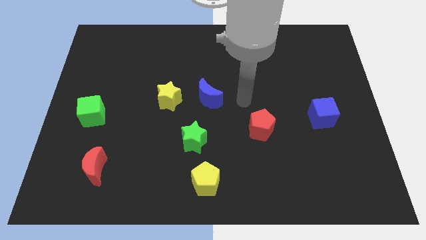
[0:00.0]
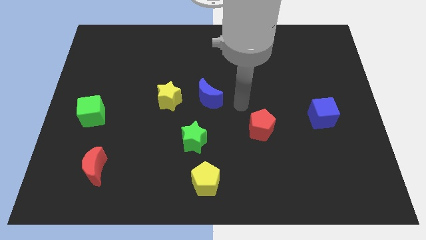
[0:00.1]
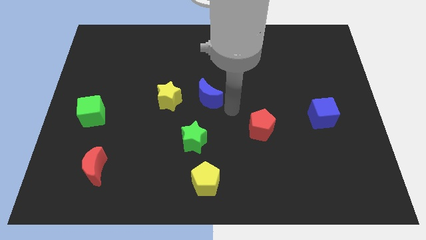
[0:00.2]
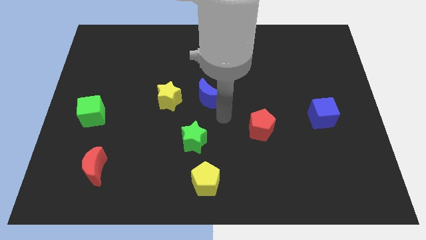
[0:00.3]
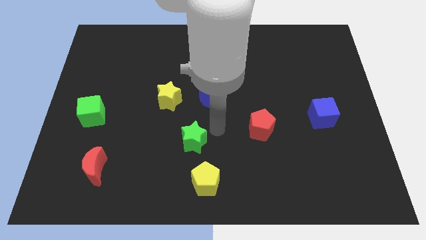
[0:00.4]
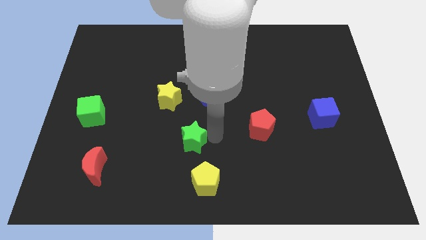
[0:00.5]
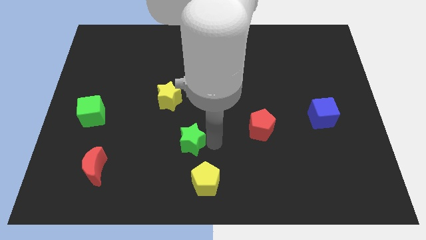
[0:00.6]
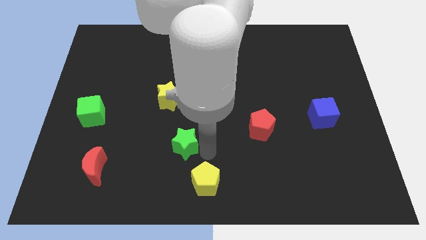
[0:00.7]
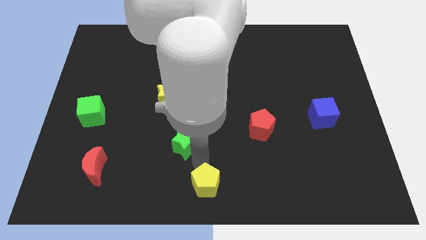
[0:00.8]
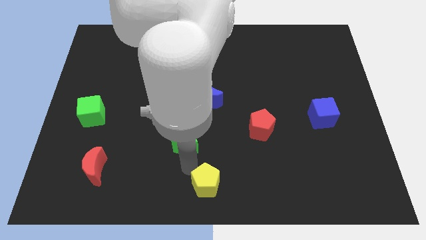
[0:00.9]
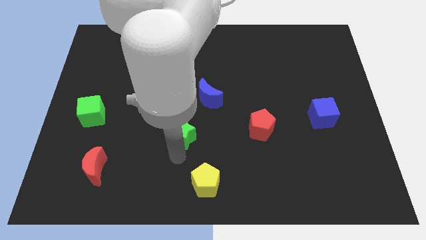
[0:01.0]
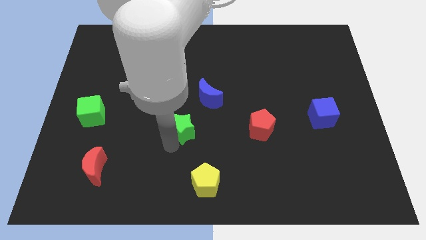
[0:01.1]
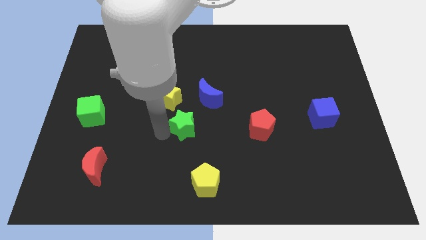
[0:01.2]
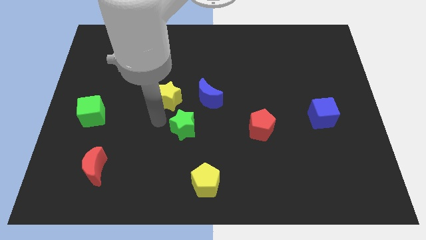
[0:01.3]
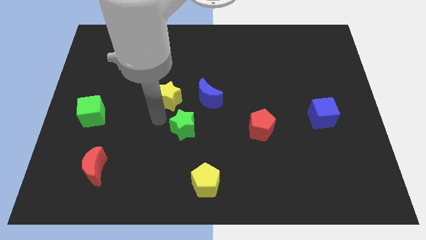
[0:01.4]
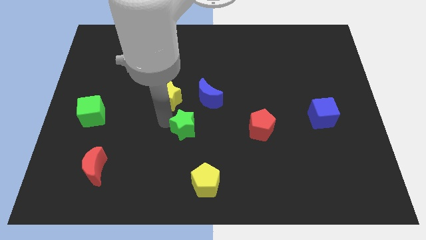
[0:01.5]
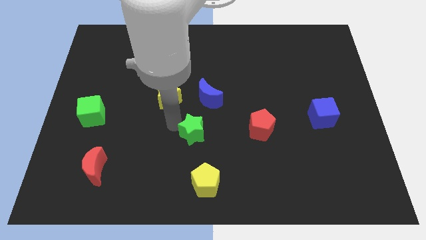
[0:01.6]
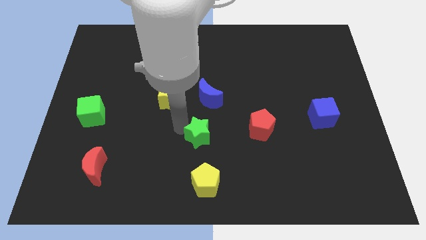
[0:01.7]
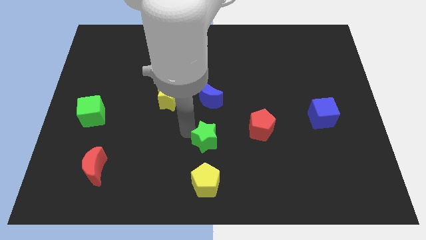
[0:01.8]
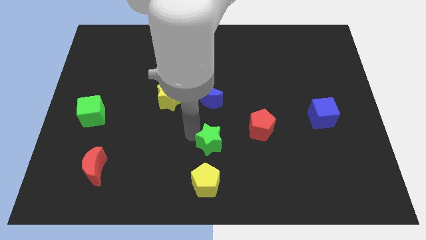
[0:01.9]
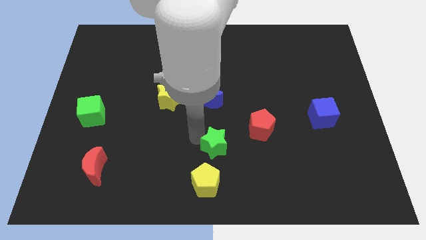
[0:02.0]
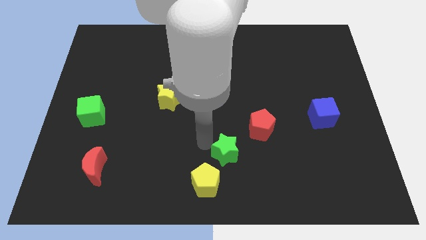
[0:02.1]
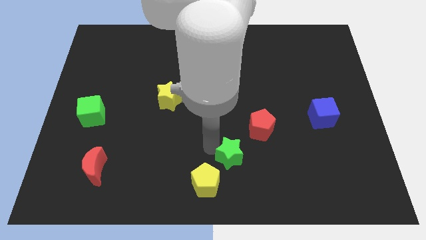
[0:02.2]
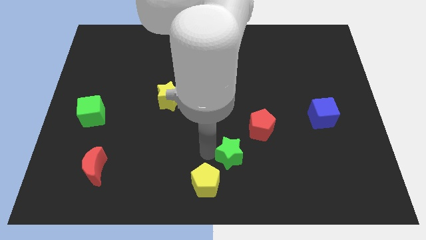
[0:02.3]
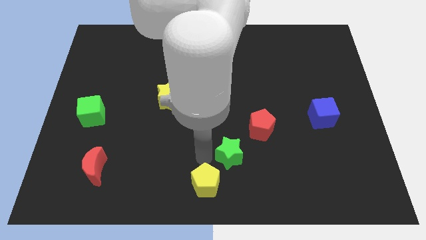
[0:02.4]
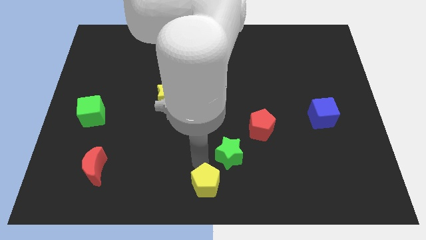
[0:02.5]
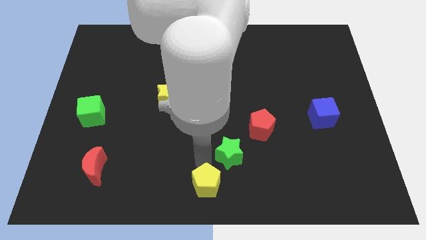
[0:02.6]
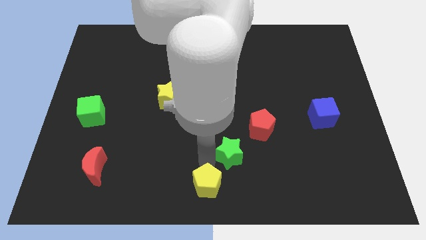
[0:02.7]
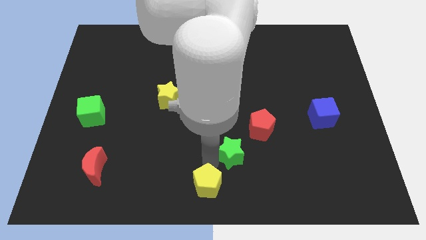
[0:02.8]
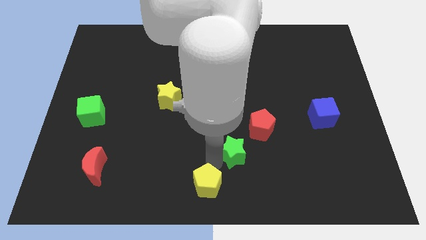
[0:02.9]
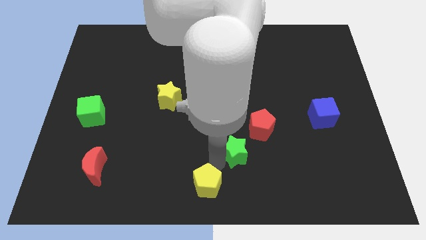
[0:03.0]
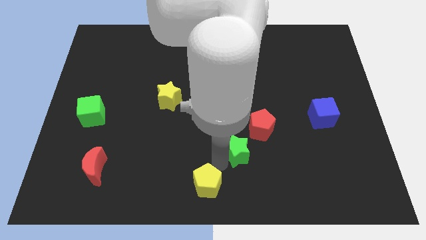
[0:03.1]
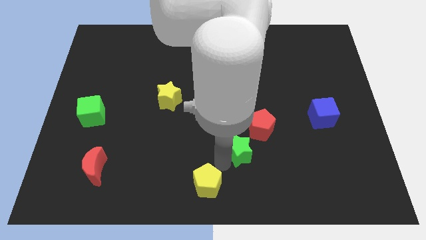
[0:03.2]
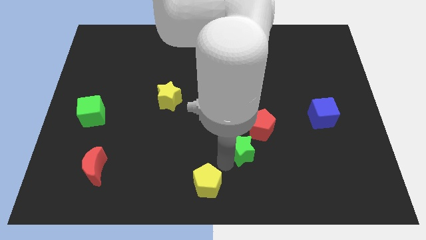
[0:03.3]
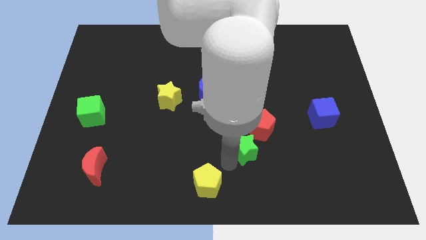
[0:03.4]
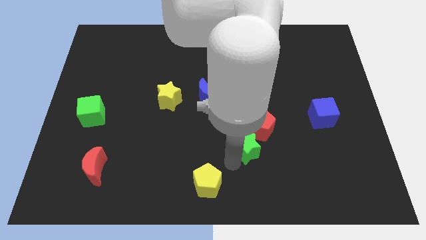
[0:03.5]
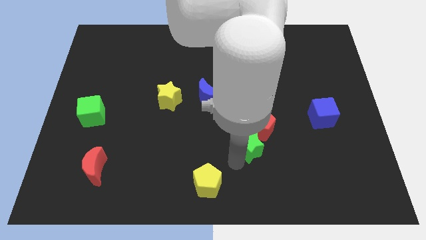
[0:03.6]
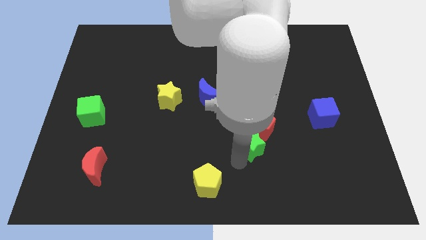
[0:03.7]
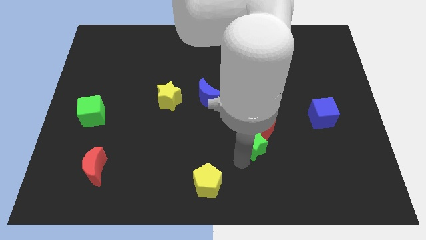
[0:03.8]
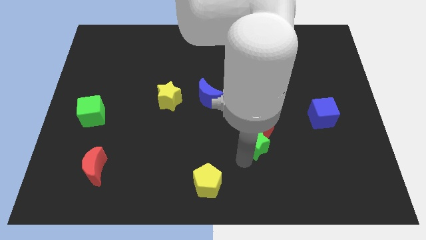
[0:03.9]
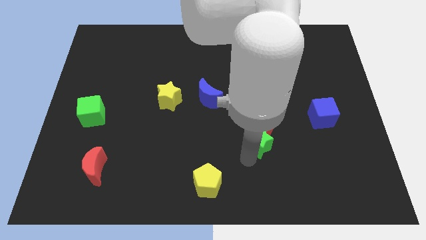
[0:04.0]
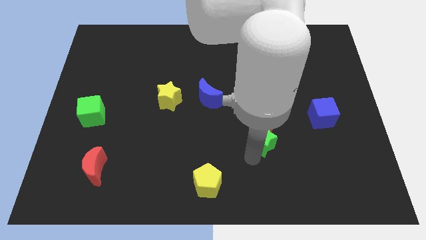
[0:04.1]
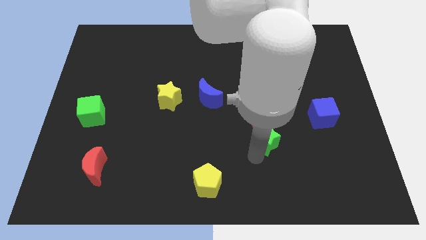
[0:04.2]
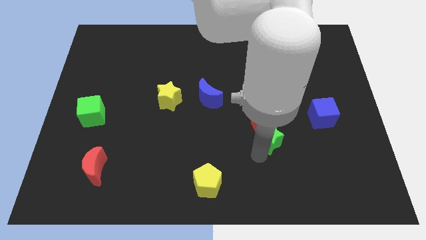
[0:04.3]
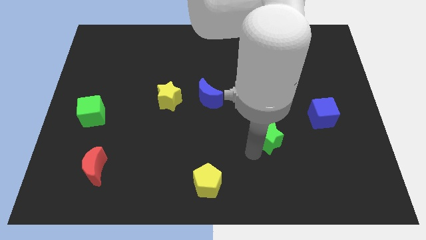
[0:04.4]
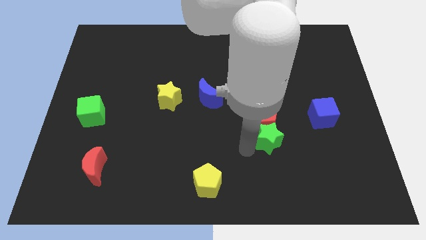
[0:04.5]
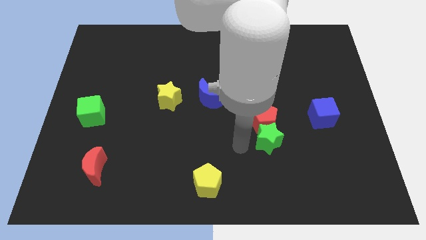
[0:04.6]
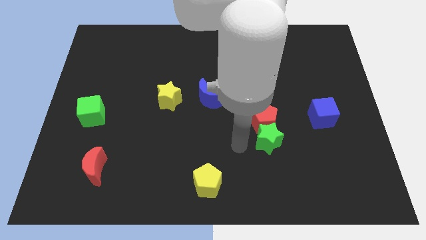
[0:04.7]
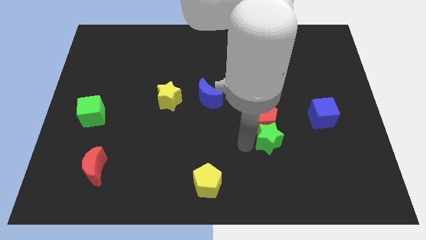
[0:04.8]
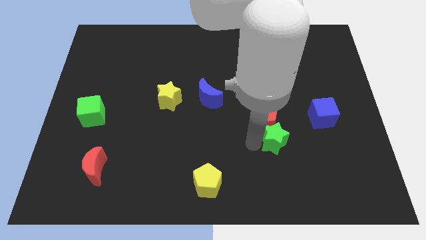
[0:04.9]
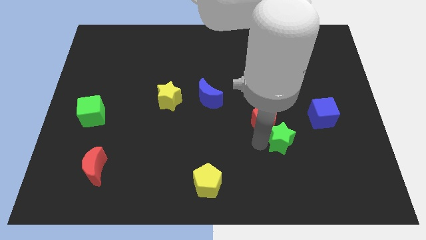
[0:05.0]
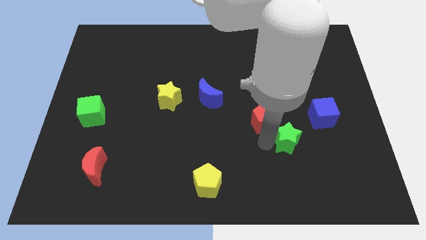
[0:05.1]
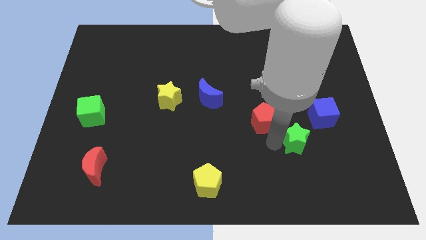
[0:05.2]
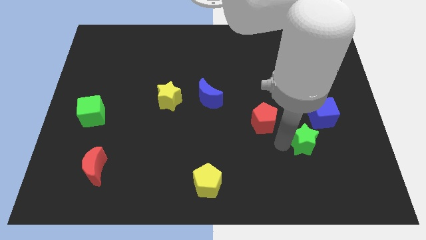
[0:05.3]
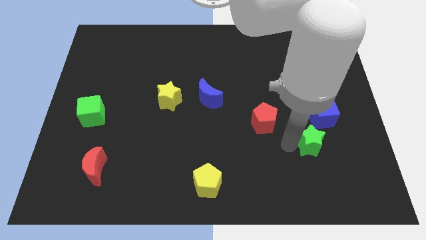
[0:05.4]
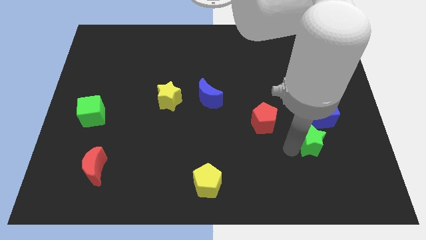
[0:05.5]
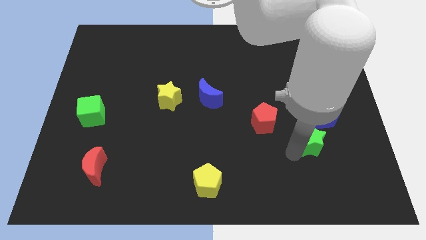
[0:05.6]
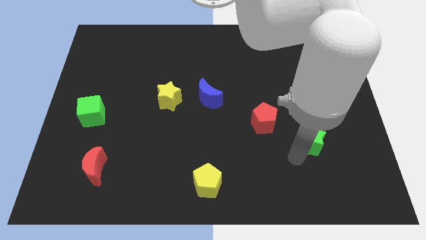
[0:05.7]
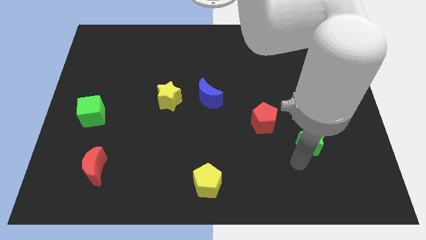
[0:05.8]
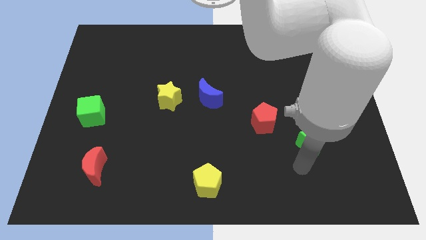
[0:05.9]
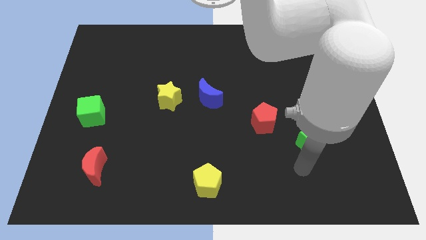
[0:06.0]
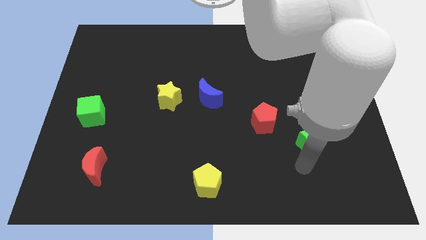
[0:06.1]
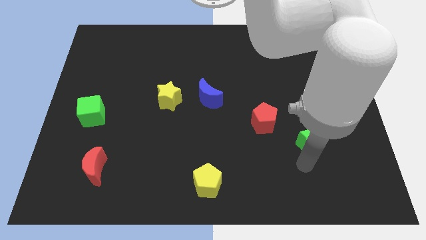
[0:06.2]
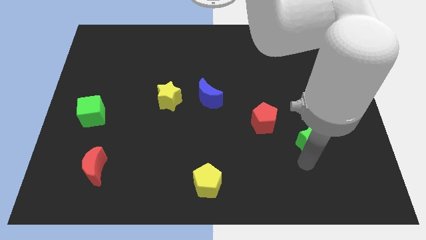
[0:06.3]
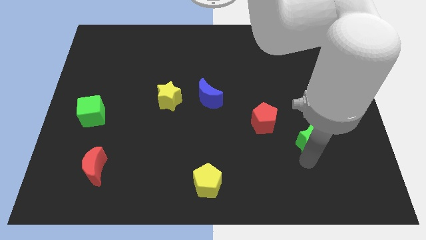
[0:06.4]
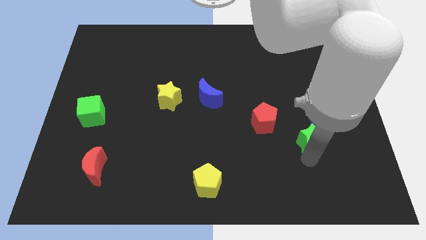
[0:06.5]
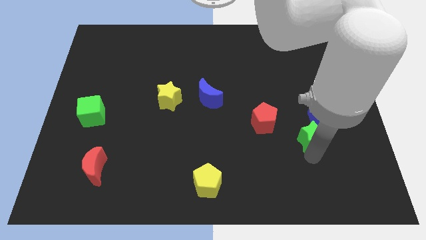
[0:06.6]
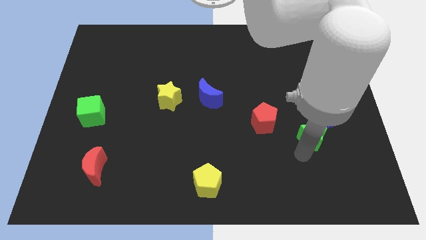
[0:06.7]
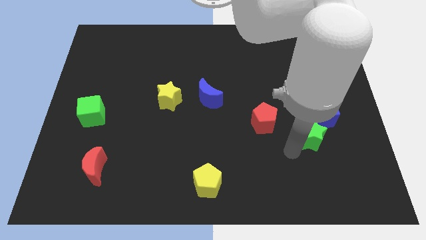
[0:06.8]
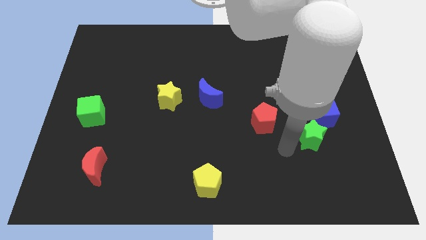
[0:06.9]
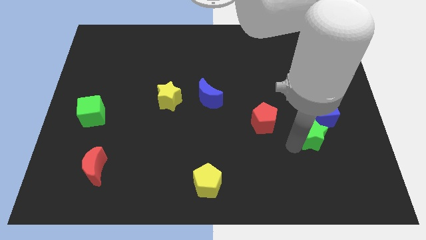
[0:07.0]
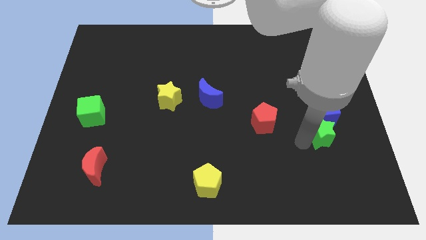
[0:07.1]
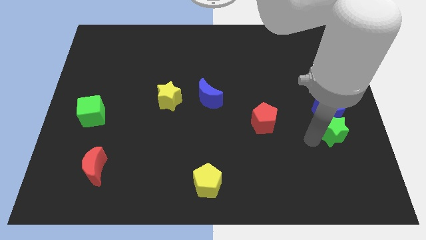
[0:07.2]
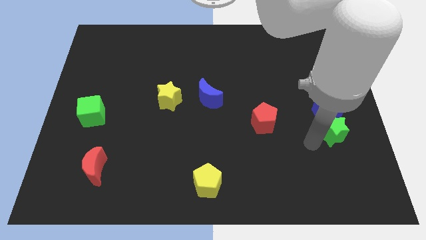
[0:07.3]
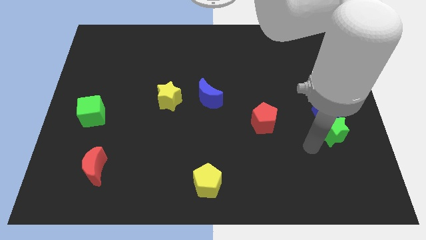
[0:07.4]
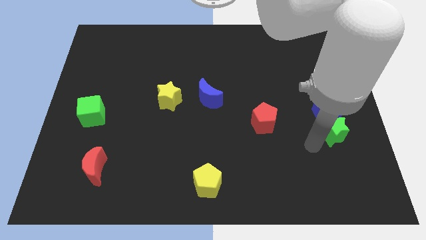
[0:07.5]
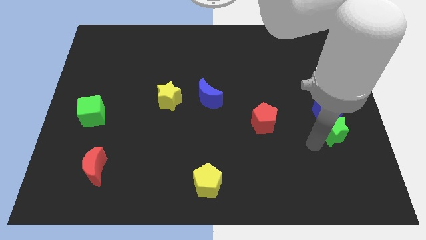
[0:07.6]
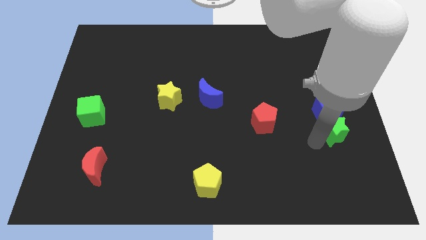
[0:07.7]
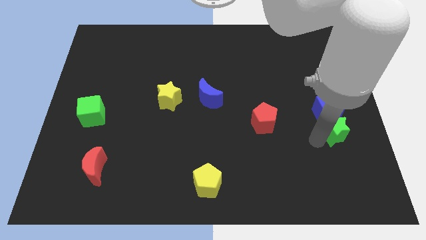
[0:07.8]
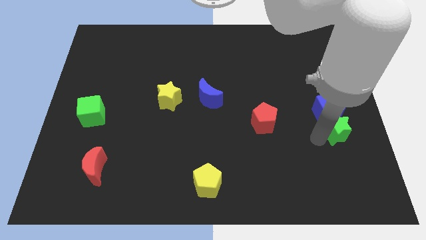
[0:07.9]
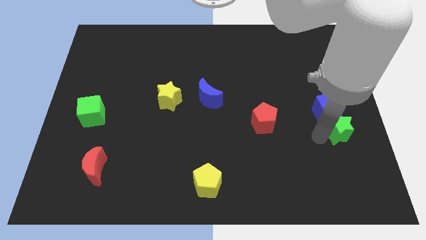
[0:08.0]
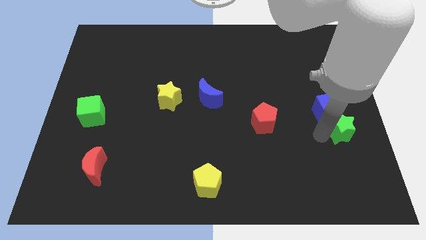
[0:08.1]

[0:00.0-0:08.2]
push the green star to the right side of the board
